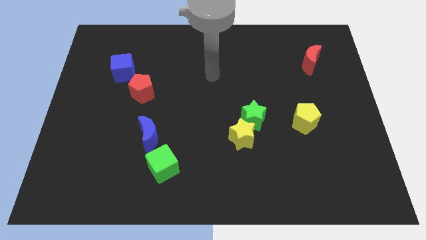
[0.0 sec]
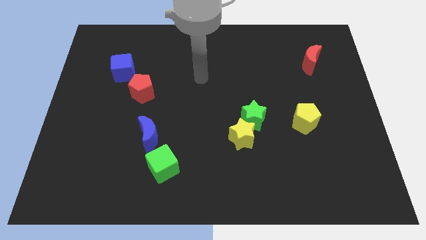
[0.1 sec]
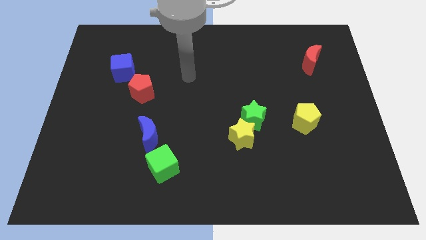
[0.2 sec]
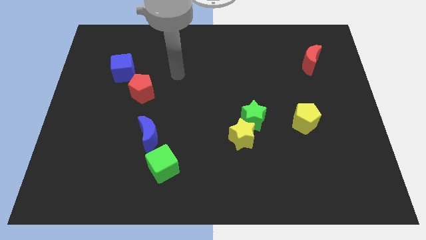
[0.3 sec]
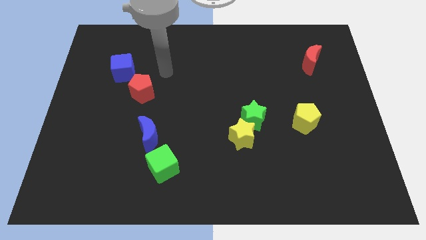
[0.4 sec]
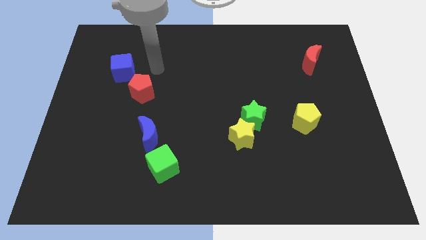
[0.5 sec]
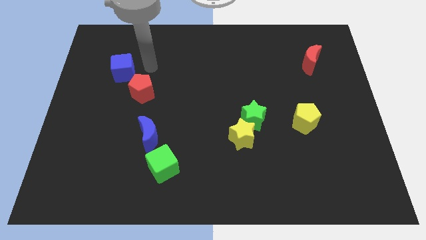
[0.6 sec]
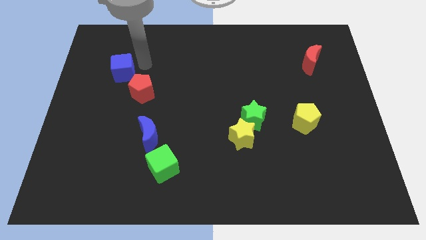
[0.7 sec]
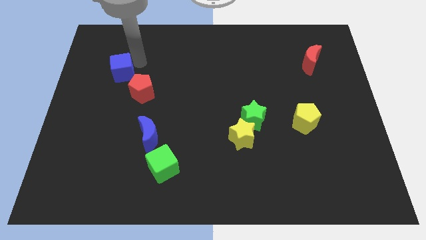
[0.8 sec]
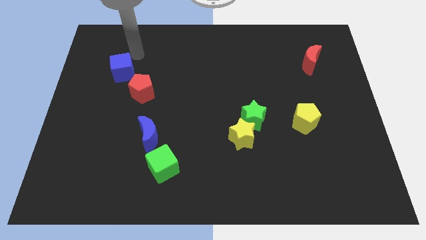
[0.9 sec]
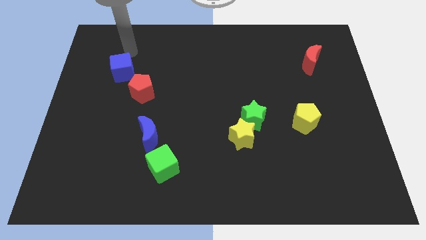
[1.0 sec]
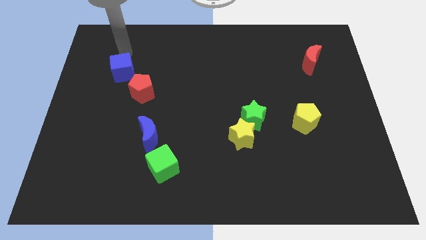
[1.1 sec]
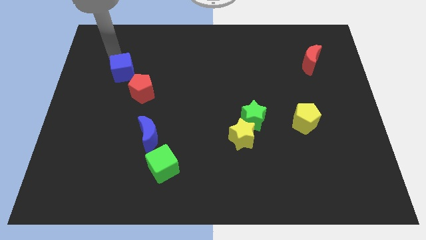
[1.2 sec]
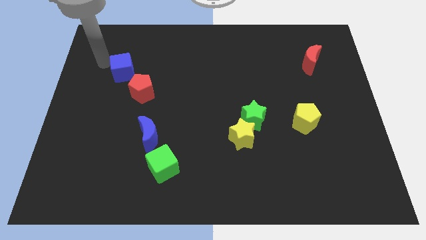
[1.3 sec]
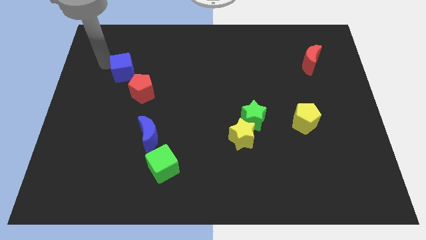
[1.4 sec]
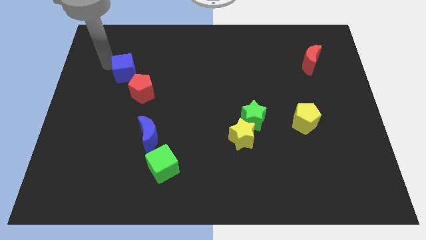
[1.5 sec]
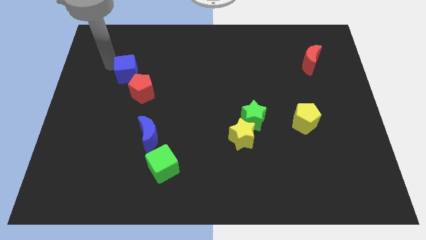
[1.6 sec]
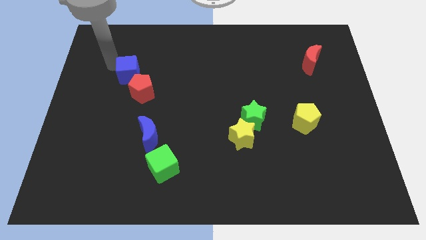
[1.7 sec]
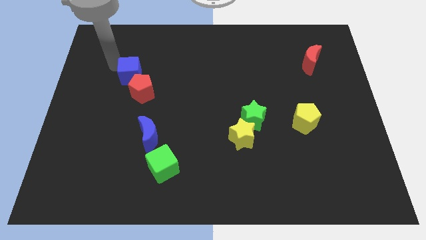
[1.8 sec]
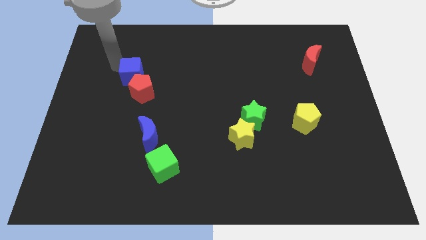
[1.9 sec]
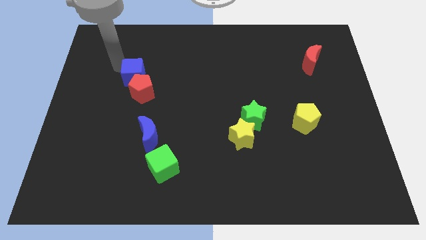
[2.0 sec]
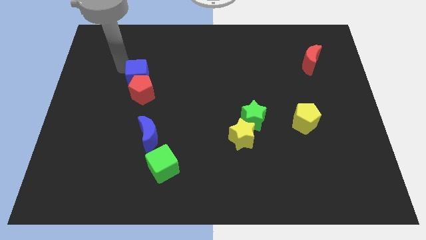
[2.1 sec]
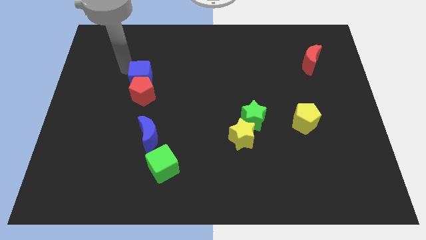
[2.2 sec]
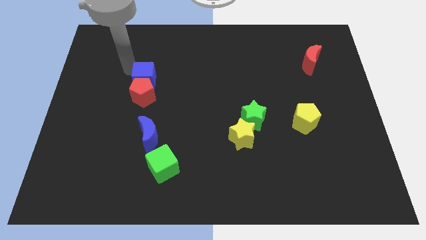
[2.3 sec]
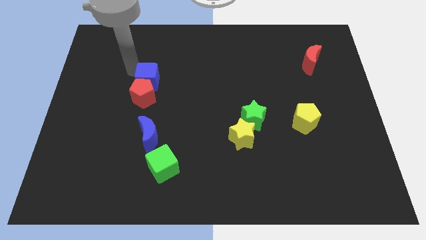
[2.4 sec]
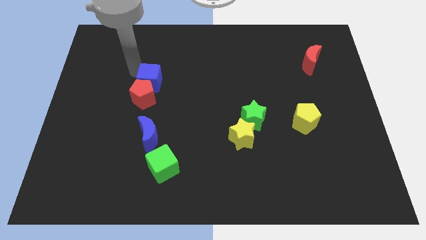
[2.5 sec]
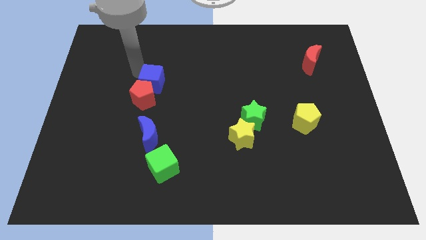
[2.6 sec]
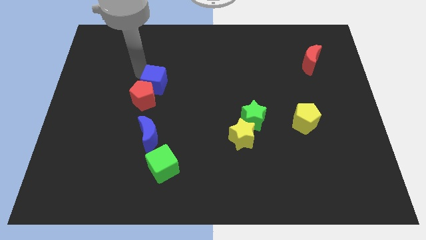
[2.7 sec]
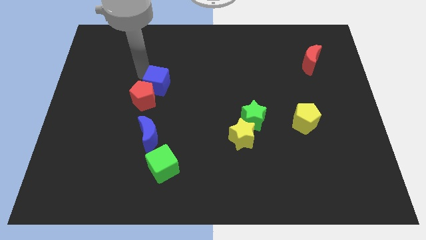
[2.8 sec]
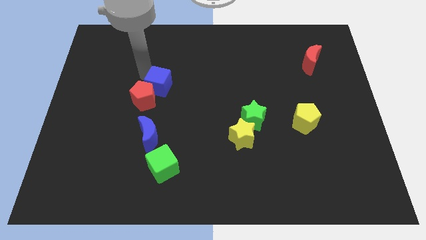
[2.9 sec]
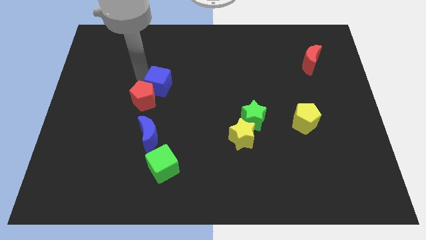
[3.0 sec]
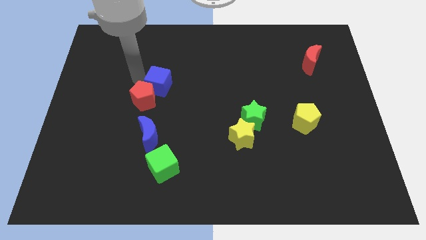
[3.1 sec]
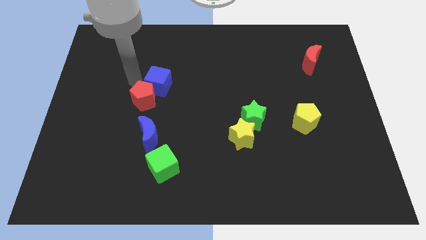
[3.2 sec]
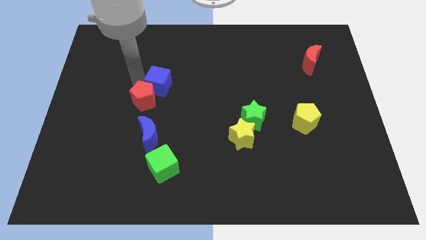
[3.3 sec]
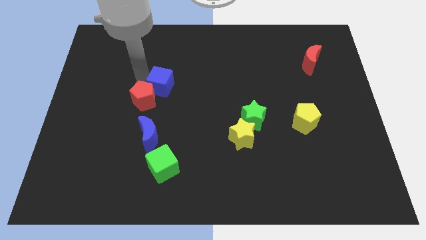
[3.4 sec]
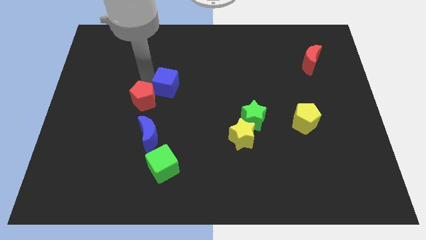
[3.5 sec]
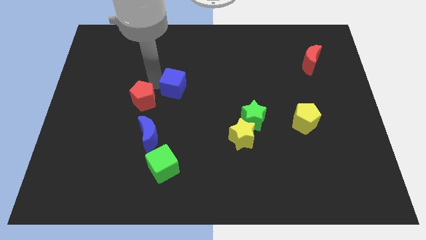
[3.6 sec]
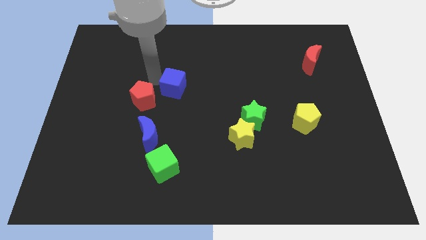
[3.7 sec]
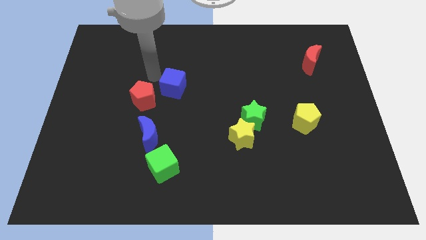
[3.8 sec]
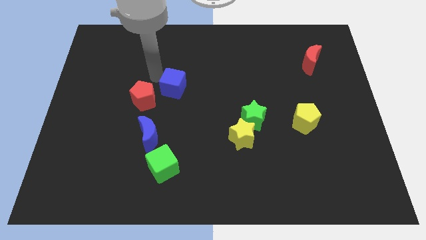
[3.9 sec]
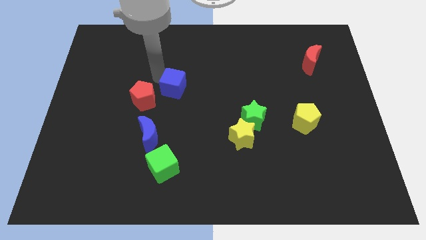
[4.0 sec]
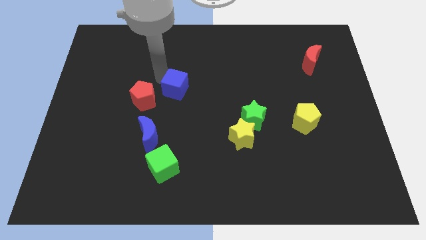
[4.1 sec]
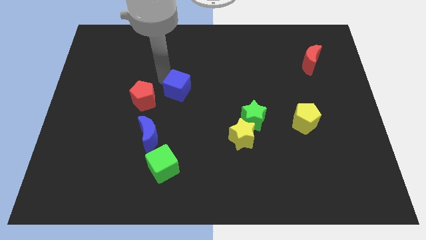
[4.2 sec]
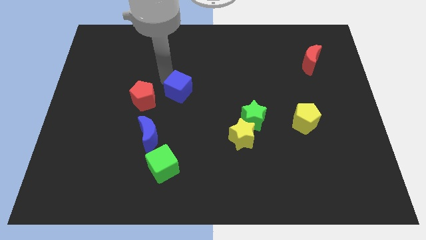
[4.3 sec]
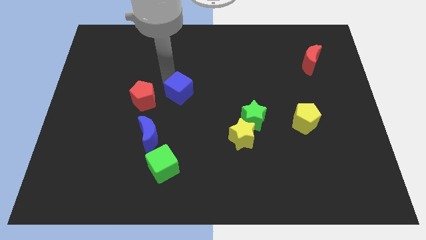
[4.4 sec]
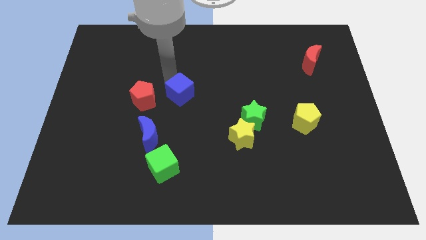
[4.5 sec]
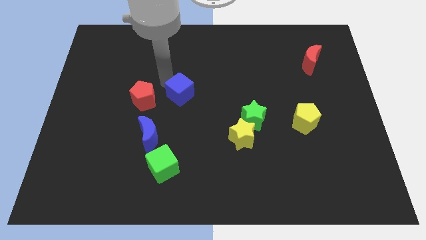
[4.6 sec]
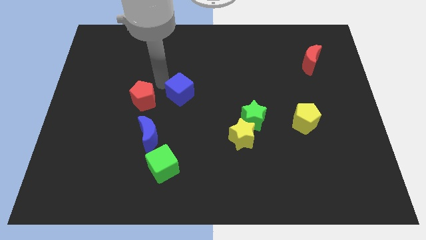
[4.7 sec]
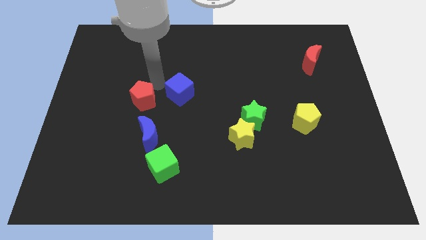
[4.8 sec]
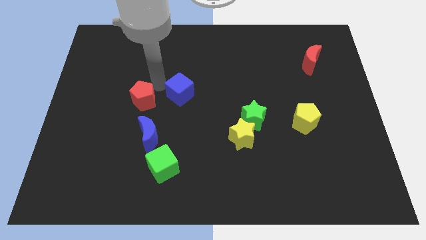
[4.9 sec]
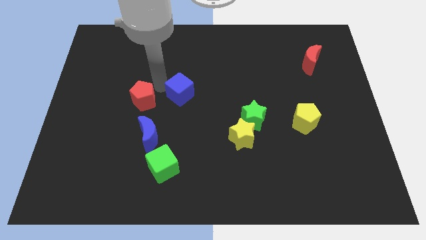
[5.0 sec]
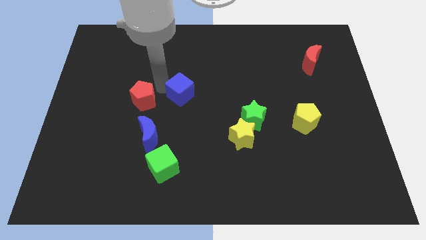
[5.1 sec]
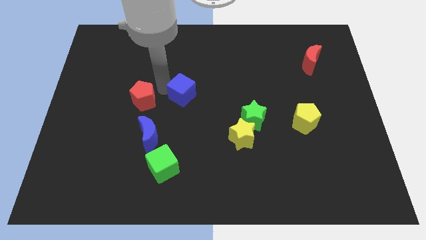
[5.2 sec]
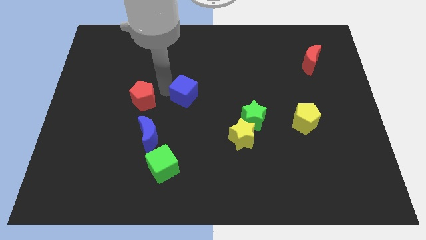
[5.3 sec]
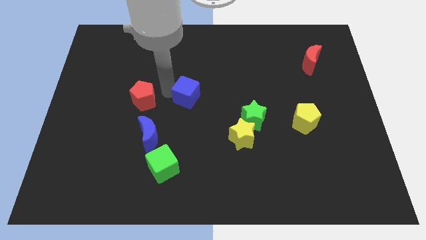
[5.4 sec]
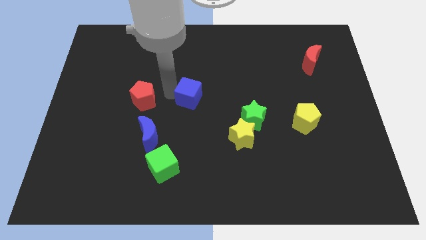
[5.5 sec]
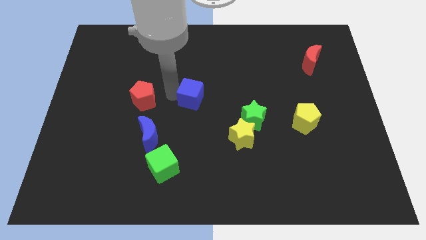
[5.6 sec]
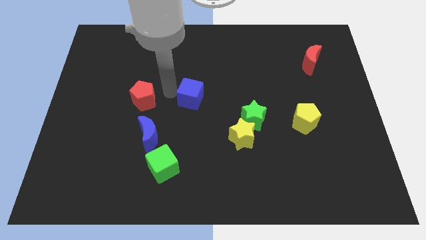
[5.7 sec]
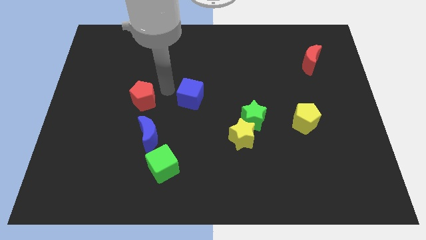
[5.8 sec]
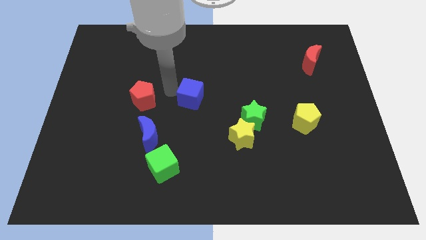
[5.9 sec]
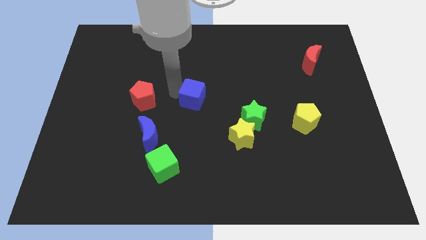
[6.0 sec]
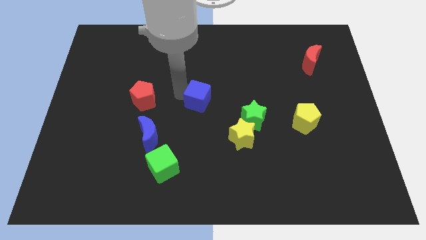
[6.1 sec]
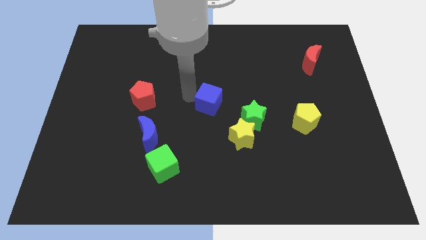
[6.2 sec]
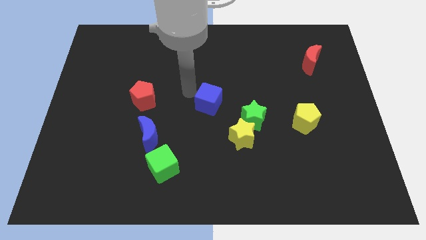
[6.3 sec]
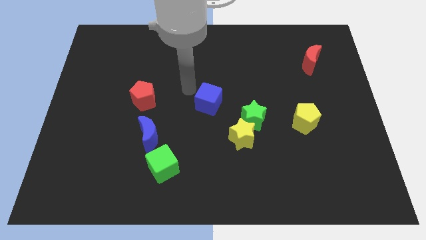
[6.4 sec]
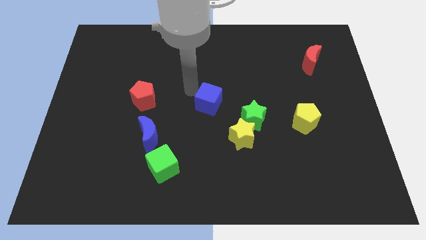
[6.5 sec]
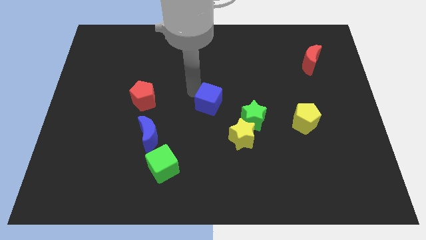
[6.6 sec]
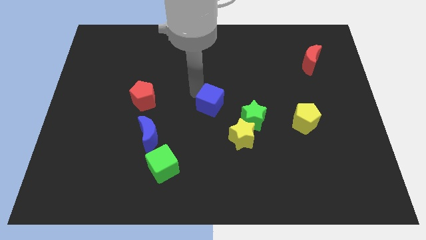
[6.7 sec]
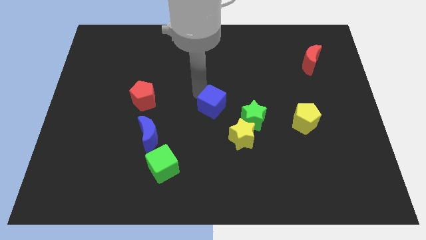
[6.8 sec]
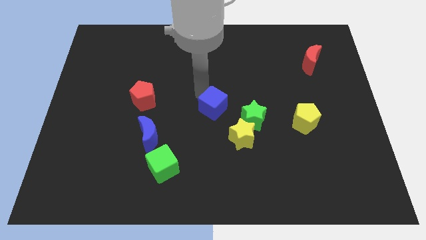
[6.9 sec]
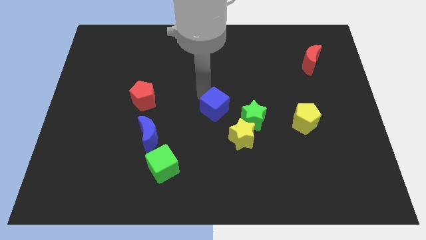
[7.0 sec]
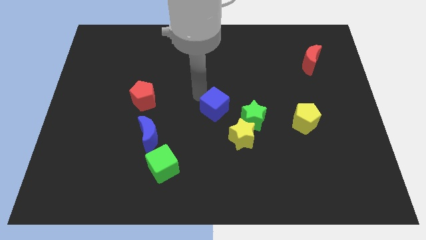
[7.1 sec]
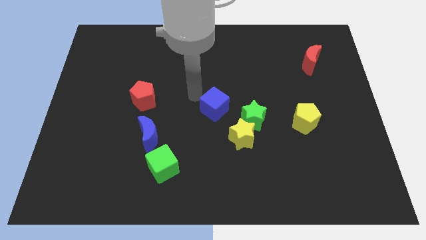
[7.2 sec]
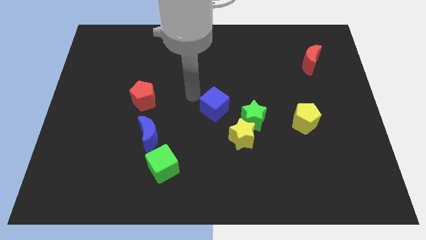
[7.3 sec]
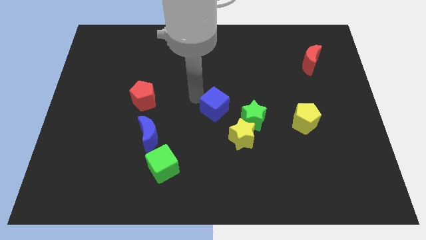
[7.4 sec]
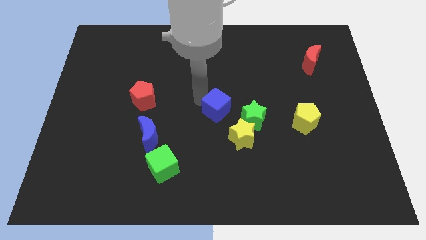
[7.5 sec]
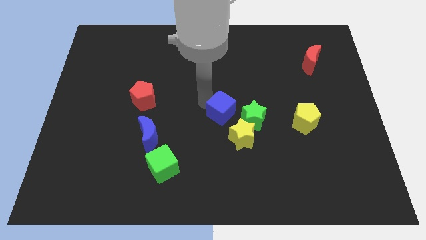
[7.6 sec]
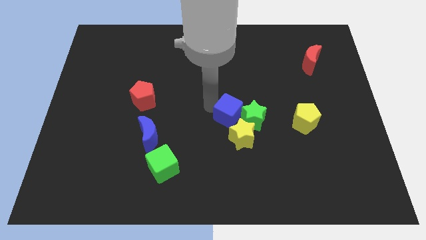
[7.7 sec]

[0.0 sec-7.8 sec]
put the blue cube towards the green star
